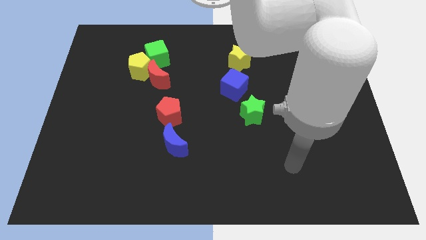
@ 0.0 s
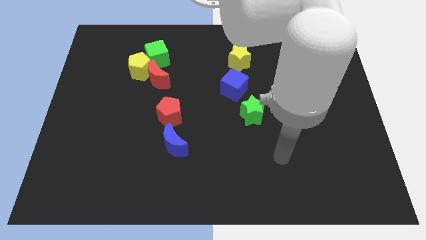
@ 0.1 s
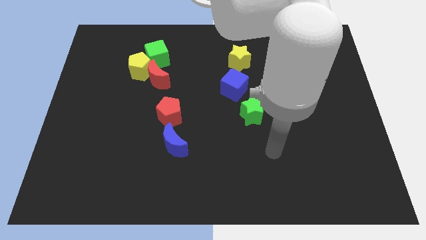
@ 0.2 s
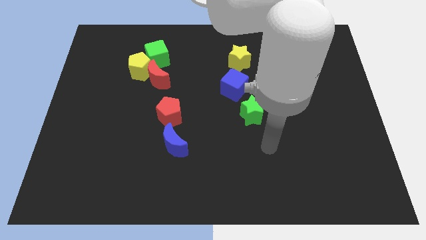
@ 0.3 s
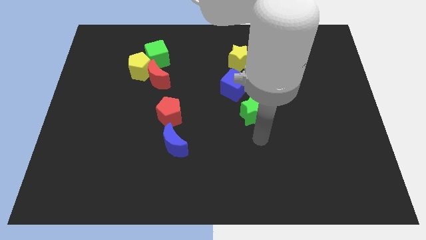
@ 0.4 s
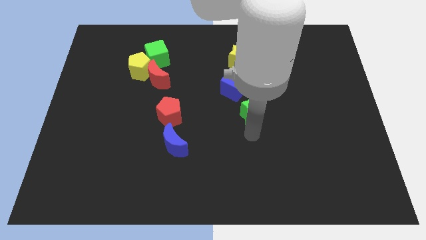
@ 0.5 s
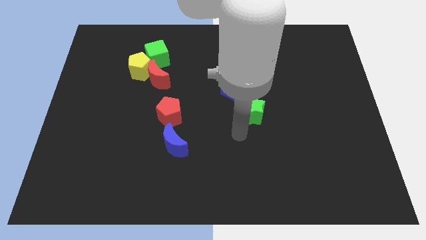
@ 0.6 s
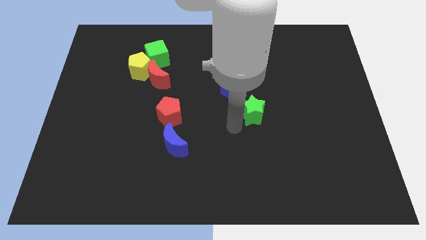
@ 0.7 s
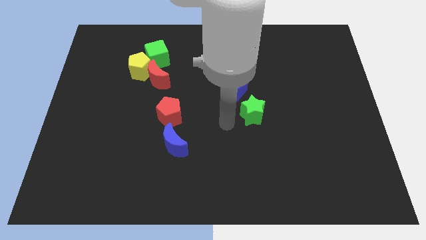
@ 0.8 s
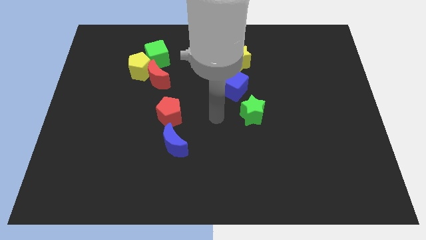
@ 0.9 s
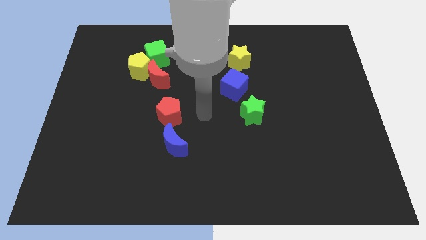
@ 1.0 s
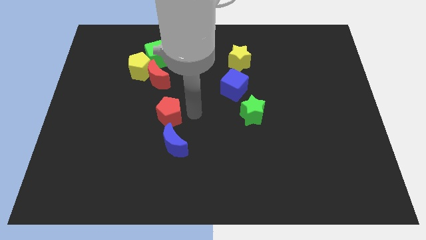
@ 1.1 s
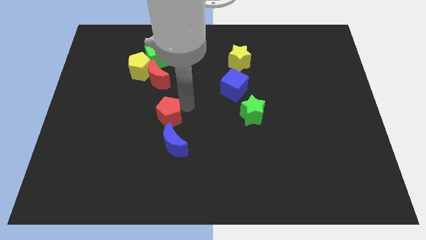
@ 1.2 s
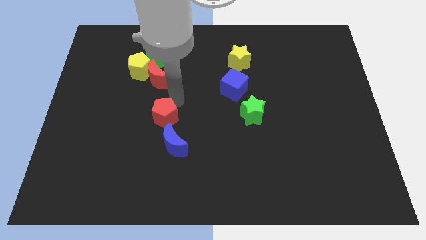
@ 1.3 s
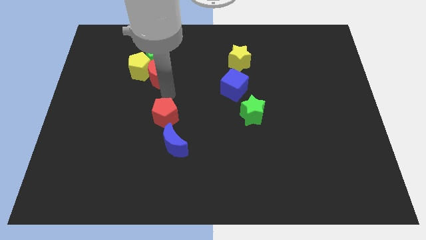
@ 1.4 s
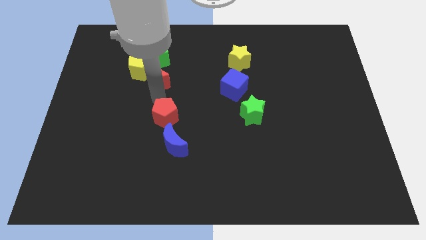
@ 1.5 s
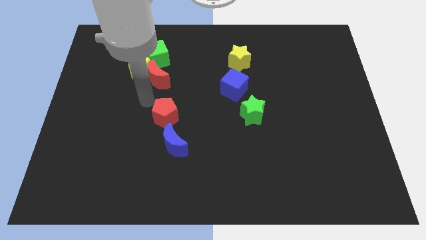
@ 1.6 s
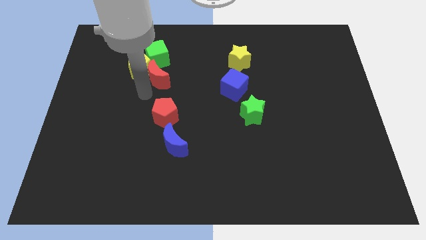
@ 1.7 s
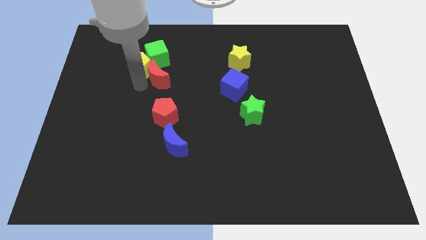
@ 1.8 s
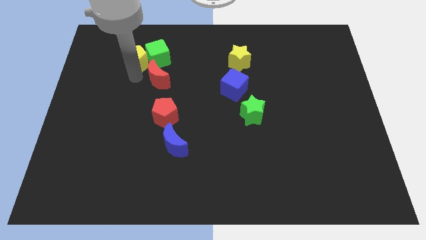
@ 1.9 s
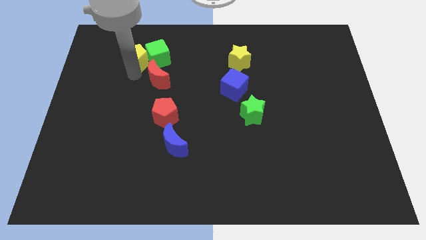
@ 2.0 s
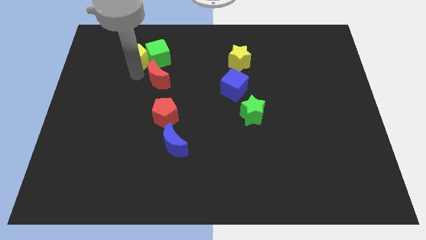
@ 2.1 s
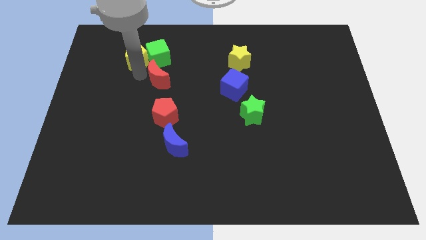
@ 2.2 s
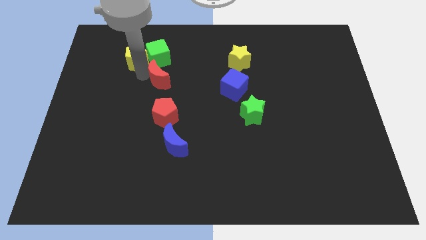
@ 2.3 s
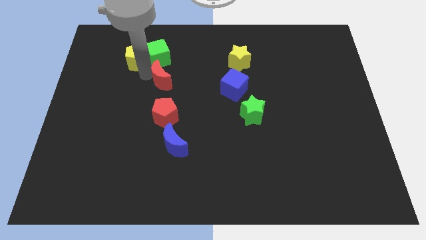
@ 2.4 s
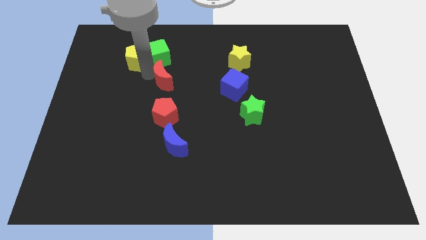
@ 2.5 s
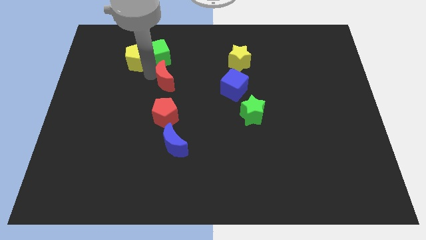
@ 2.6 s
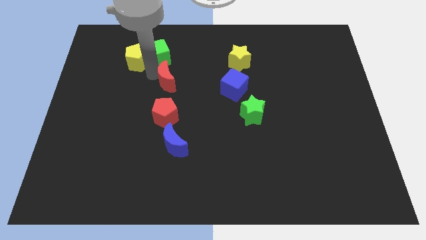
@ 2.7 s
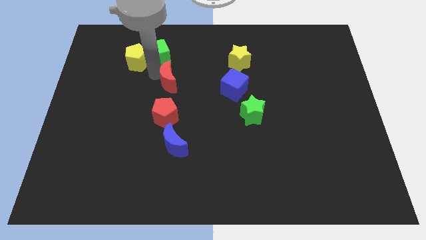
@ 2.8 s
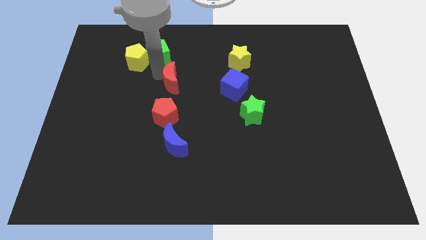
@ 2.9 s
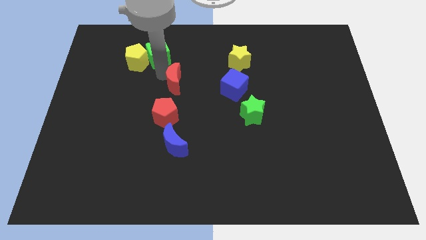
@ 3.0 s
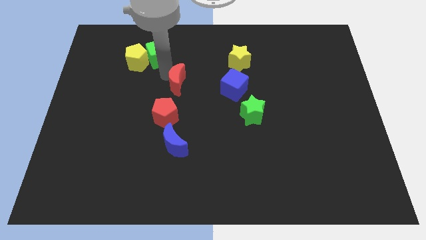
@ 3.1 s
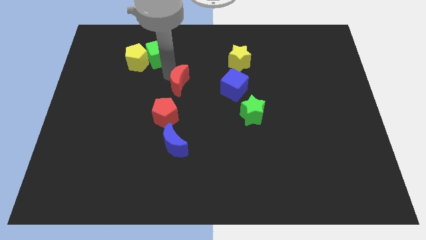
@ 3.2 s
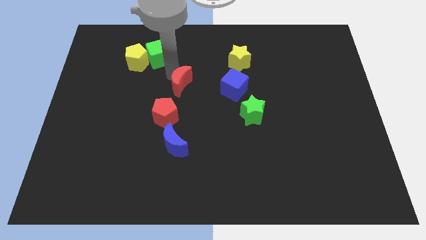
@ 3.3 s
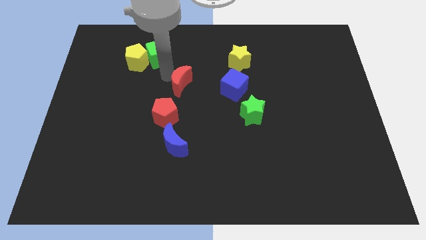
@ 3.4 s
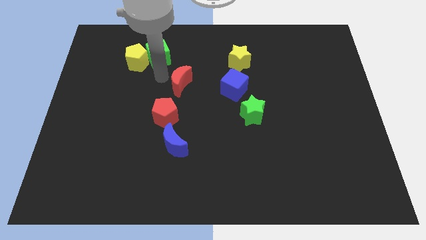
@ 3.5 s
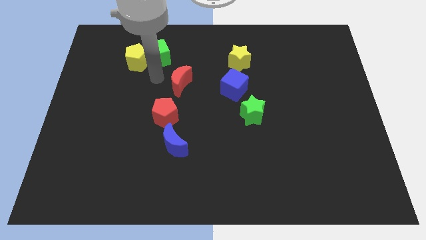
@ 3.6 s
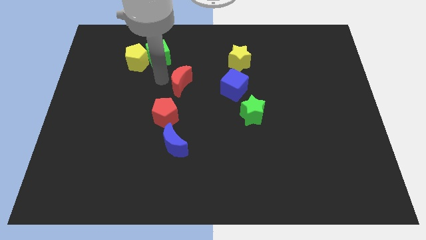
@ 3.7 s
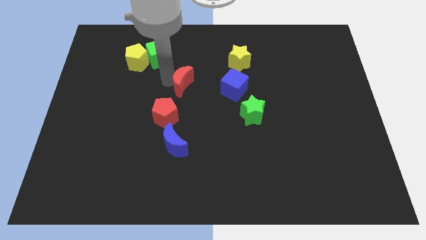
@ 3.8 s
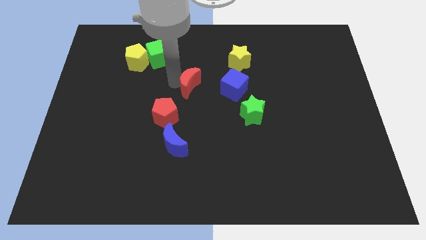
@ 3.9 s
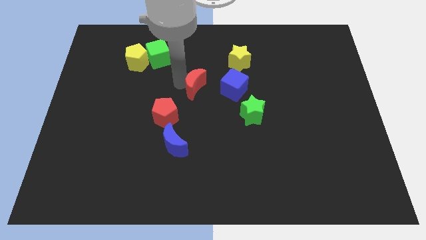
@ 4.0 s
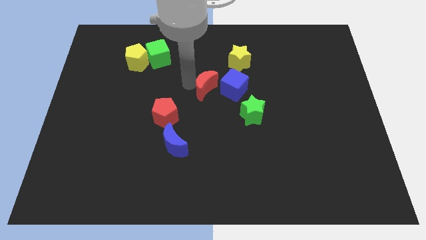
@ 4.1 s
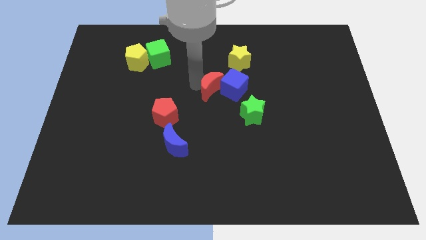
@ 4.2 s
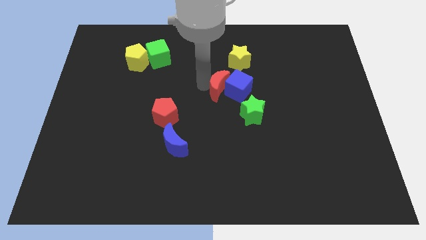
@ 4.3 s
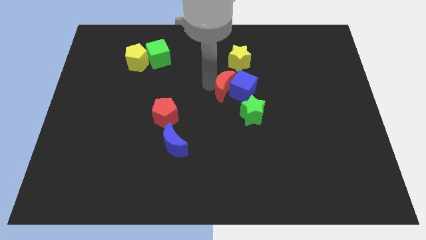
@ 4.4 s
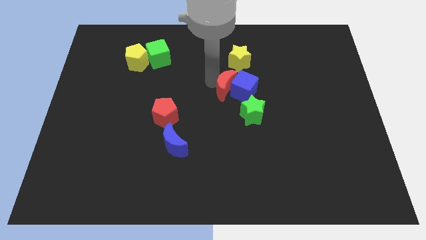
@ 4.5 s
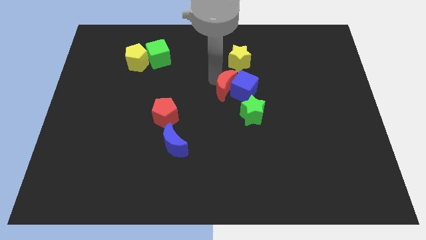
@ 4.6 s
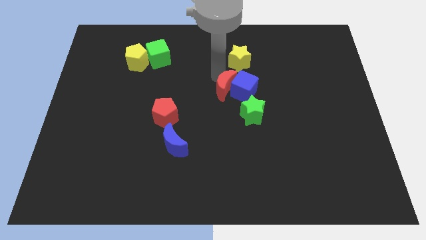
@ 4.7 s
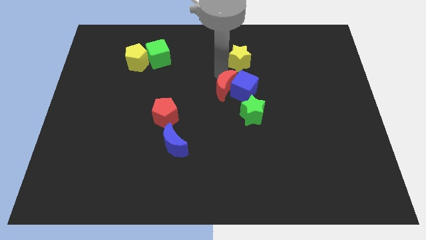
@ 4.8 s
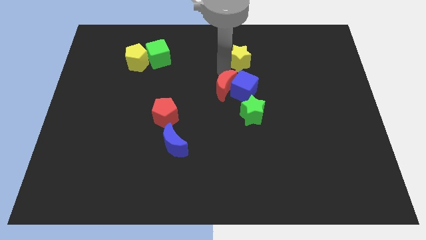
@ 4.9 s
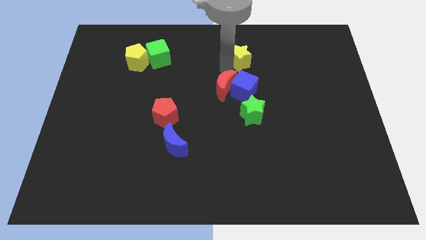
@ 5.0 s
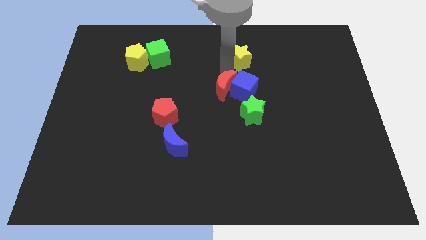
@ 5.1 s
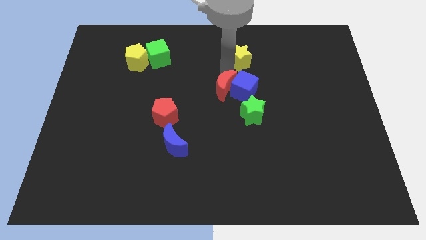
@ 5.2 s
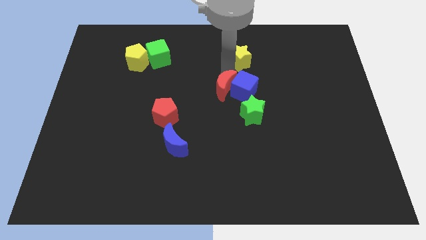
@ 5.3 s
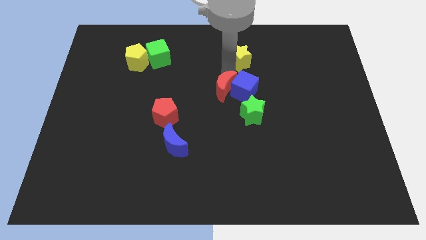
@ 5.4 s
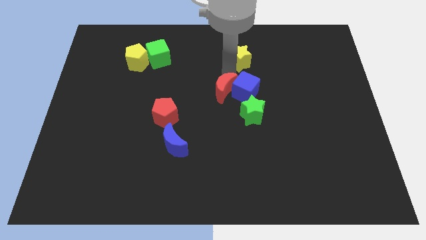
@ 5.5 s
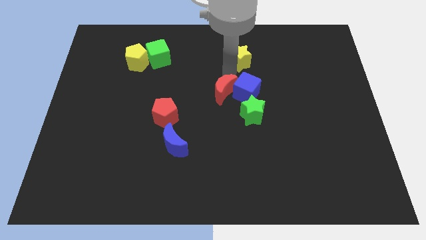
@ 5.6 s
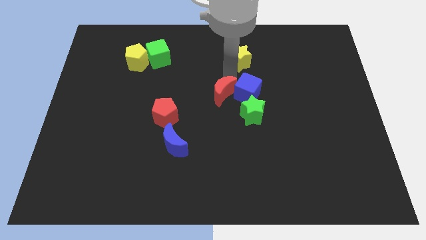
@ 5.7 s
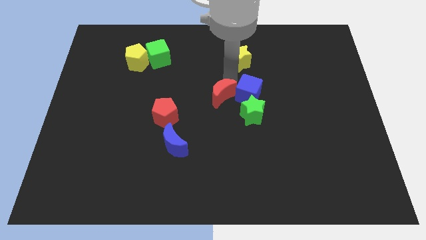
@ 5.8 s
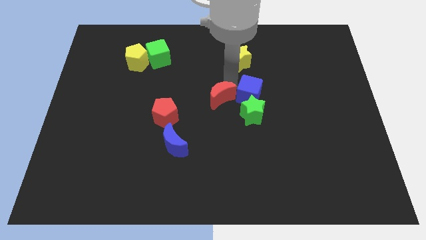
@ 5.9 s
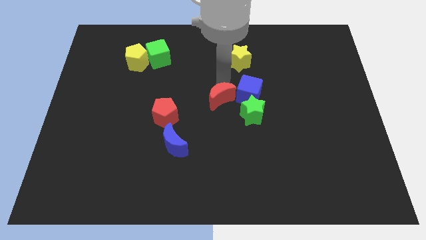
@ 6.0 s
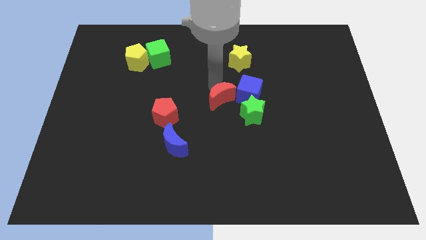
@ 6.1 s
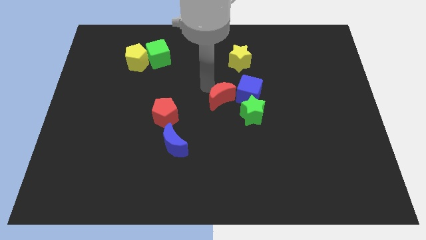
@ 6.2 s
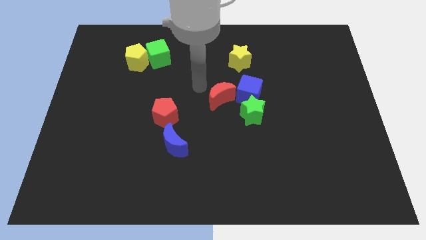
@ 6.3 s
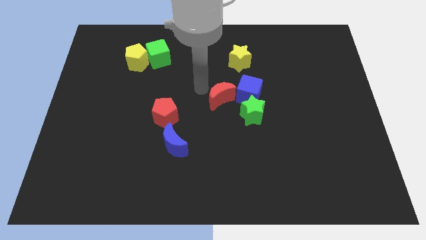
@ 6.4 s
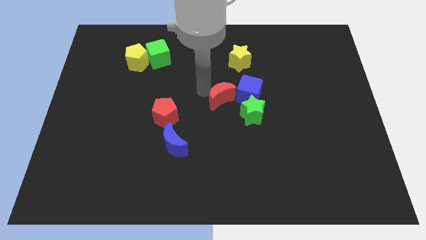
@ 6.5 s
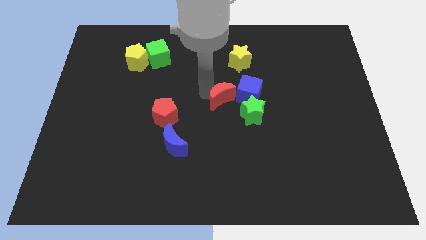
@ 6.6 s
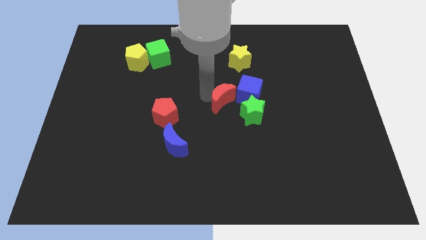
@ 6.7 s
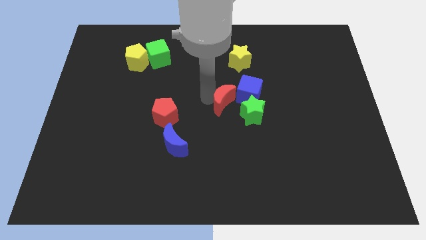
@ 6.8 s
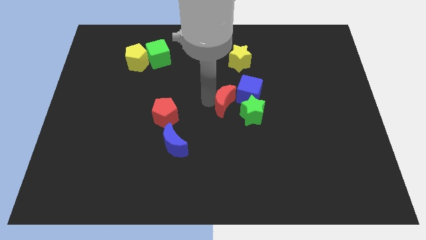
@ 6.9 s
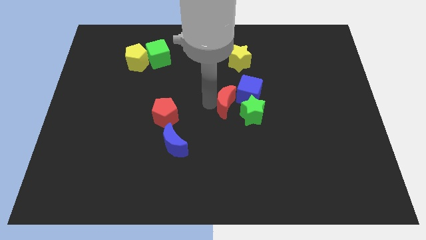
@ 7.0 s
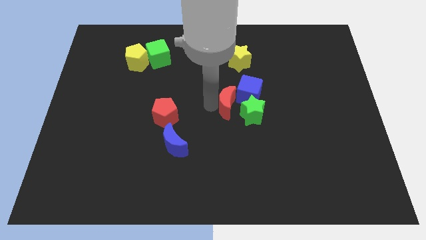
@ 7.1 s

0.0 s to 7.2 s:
put the red moon towards the green star
